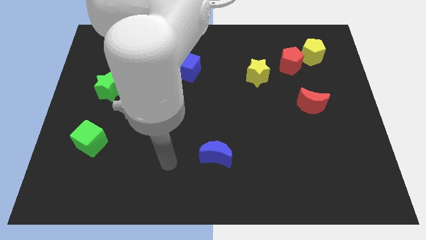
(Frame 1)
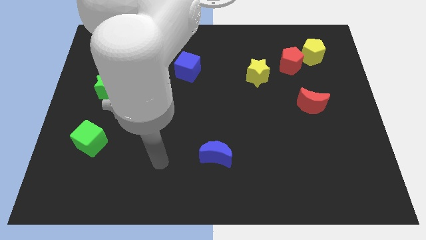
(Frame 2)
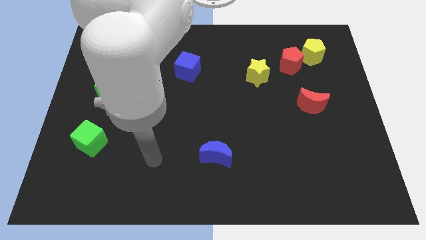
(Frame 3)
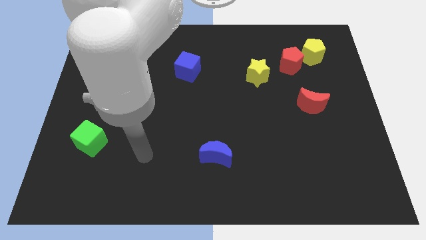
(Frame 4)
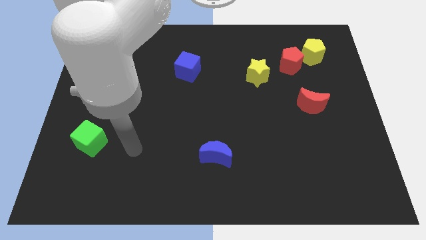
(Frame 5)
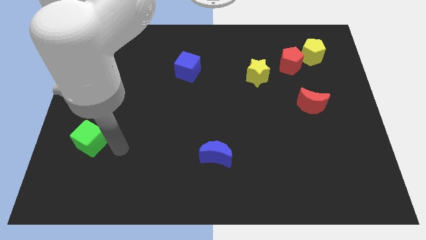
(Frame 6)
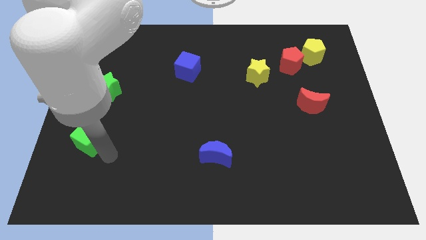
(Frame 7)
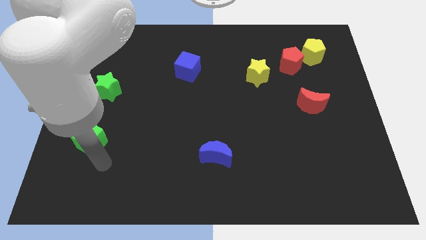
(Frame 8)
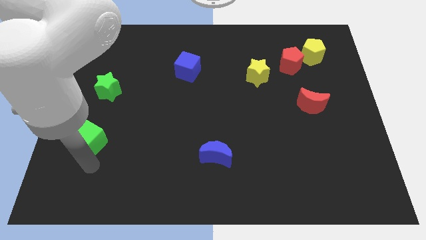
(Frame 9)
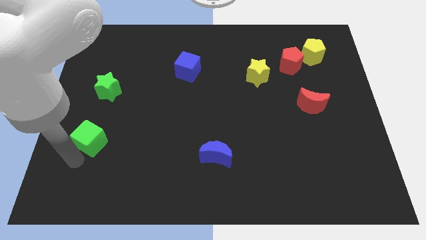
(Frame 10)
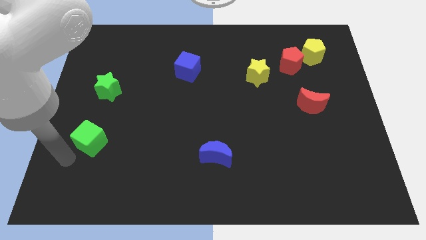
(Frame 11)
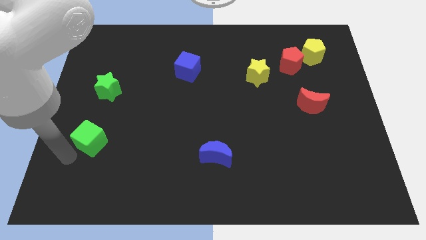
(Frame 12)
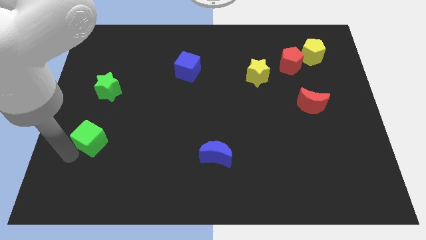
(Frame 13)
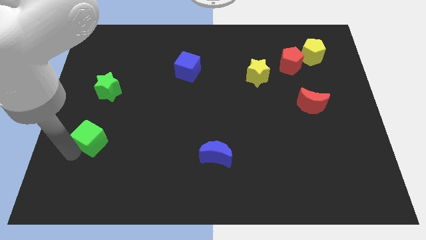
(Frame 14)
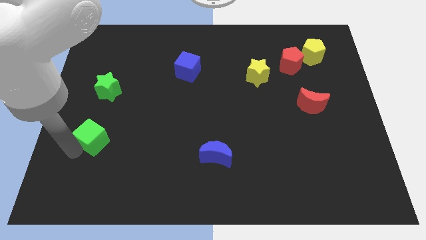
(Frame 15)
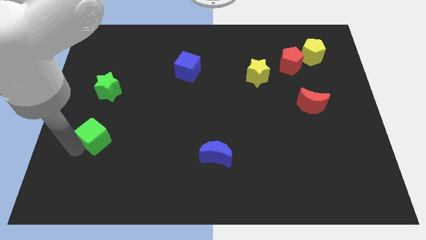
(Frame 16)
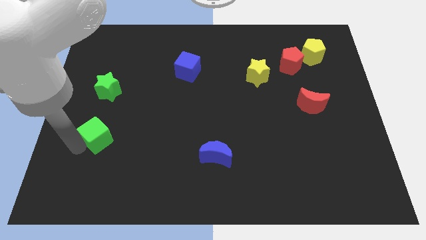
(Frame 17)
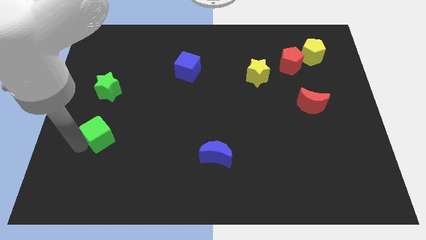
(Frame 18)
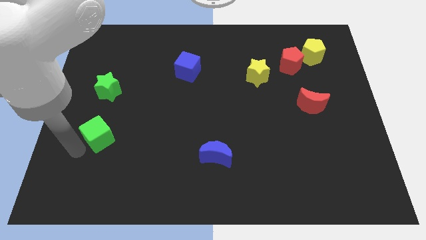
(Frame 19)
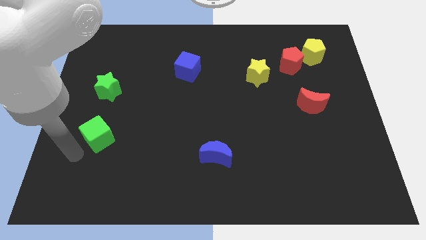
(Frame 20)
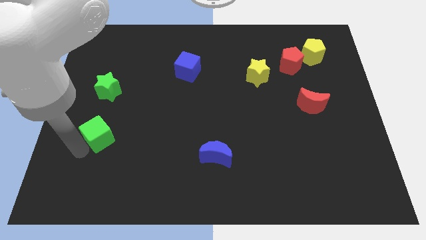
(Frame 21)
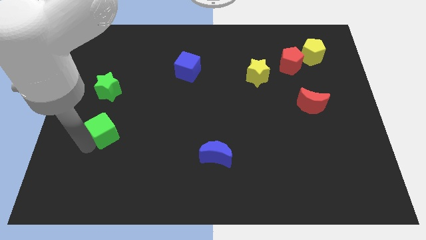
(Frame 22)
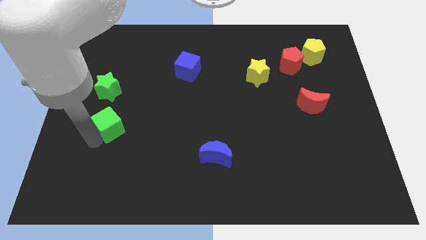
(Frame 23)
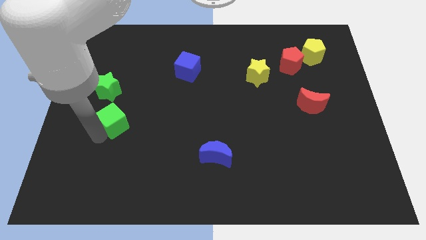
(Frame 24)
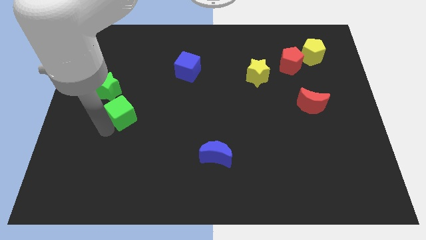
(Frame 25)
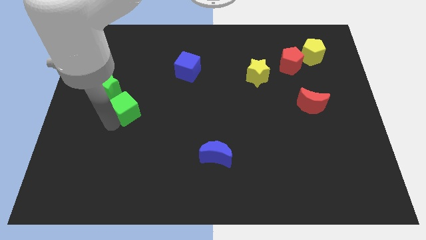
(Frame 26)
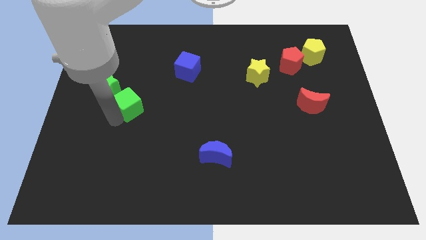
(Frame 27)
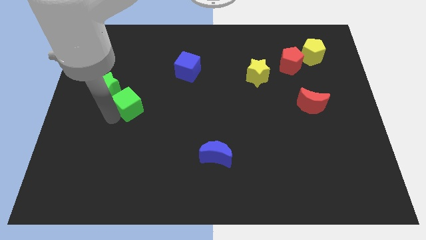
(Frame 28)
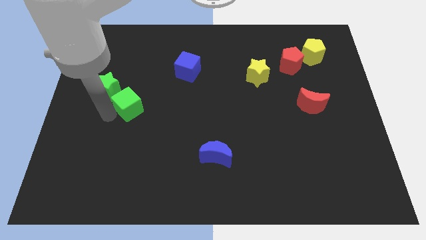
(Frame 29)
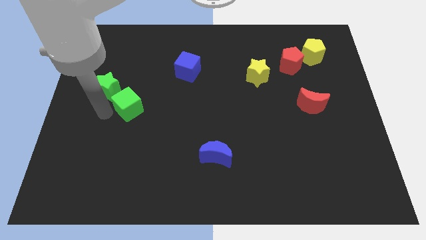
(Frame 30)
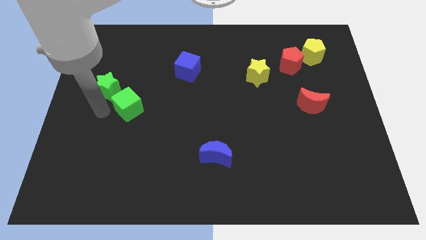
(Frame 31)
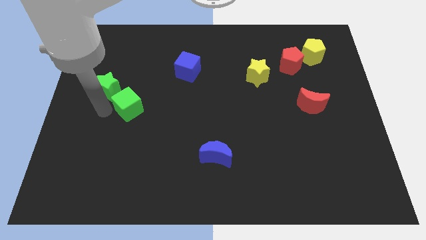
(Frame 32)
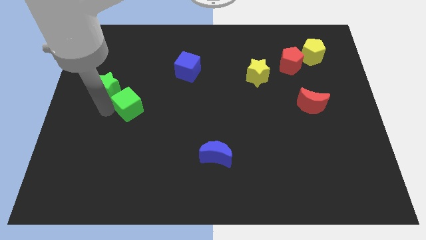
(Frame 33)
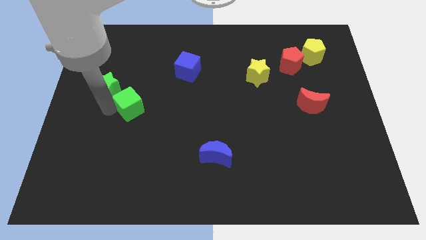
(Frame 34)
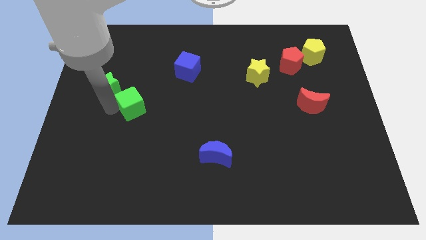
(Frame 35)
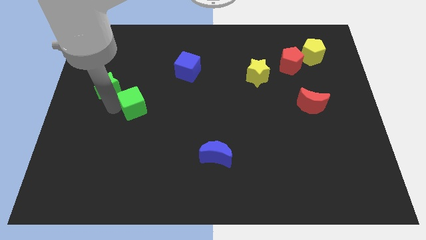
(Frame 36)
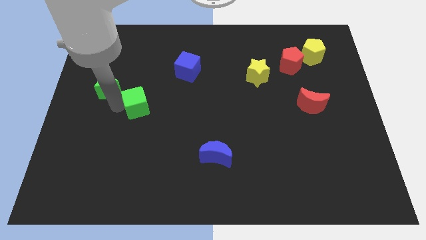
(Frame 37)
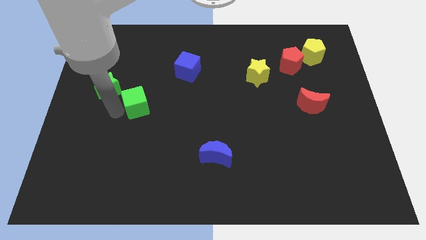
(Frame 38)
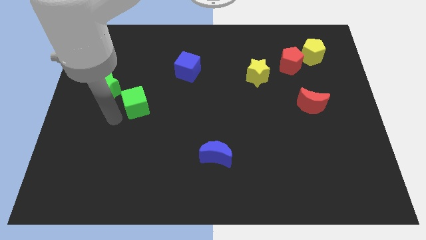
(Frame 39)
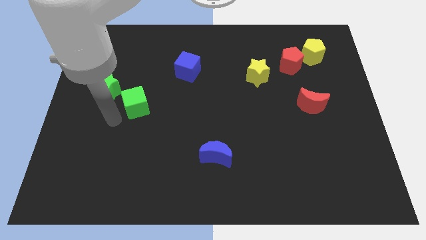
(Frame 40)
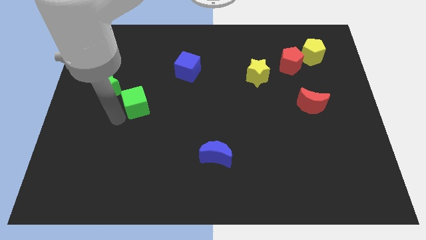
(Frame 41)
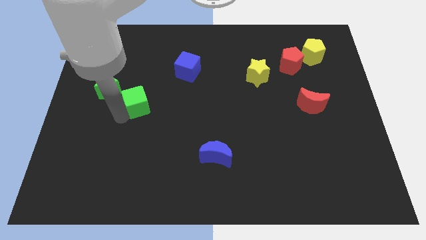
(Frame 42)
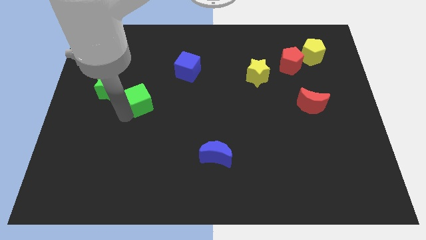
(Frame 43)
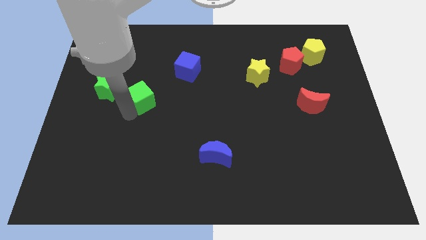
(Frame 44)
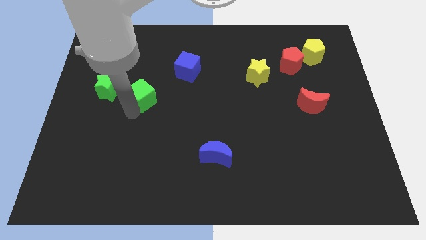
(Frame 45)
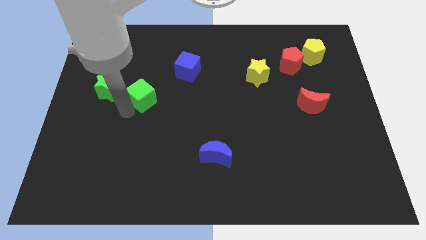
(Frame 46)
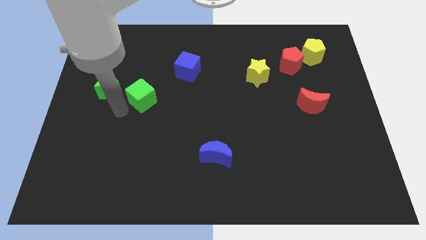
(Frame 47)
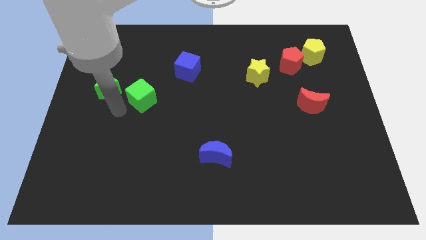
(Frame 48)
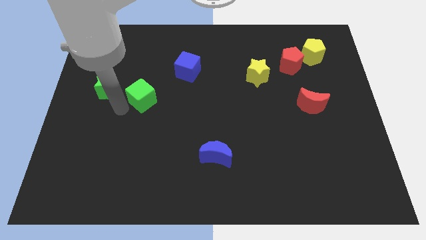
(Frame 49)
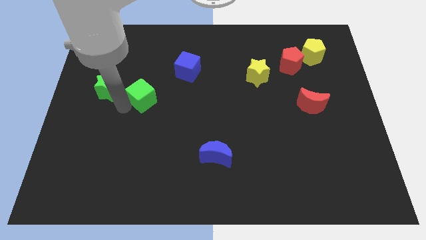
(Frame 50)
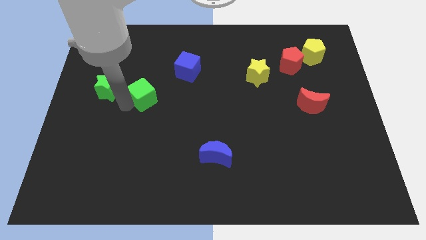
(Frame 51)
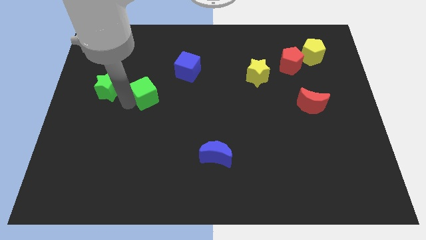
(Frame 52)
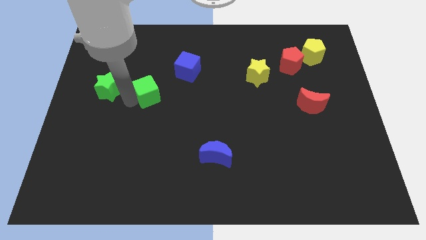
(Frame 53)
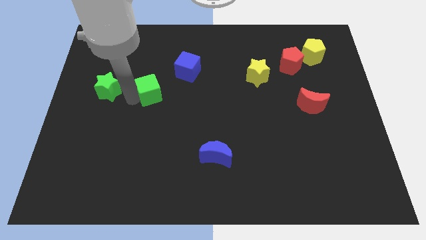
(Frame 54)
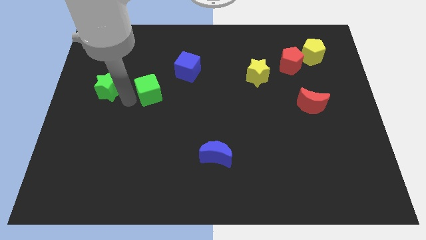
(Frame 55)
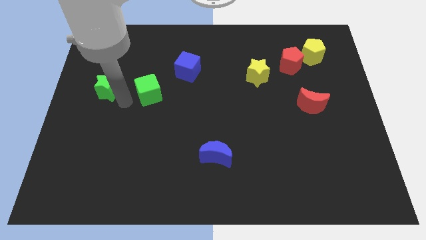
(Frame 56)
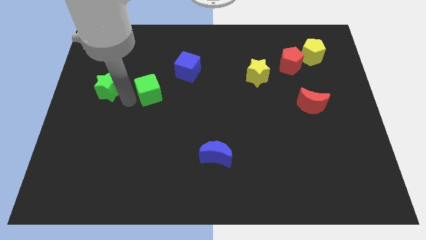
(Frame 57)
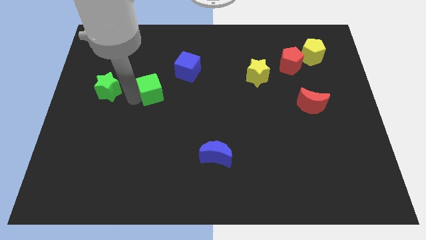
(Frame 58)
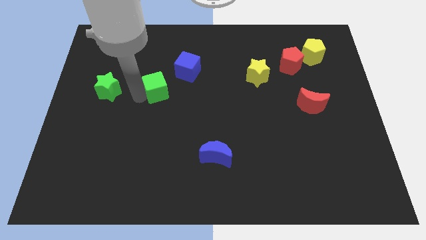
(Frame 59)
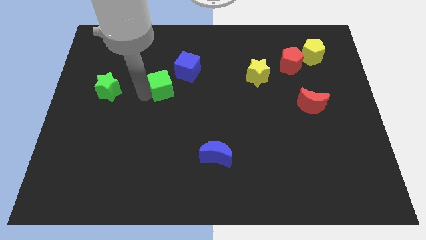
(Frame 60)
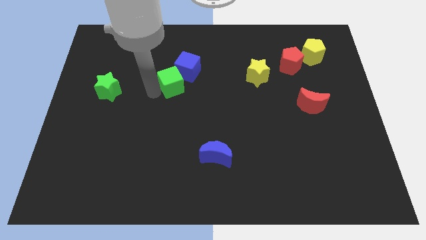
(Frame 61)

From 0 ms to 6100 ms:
move the green cube next to the blue cube

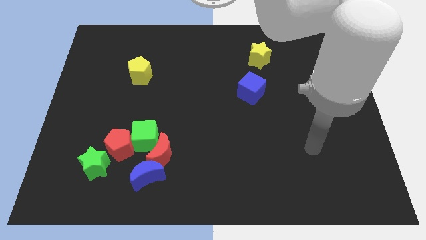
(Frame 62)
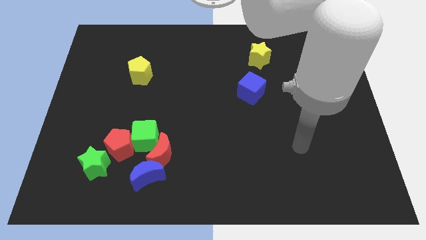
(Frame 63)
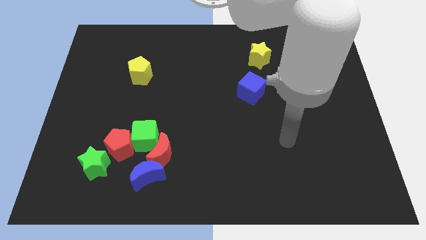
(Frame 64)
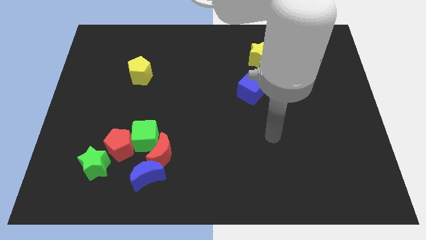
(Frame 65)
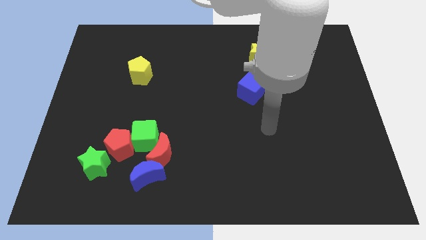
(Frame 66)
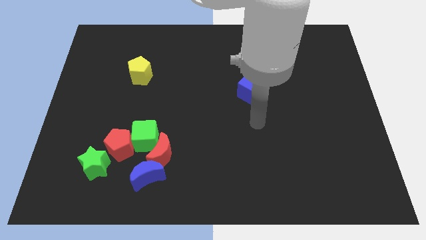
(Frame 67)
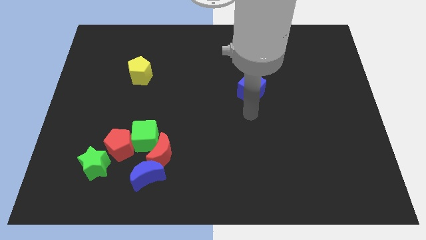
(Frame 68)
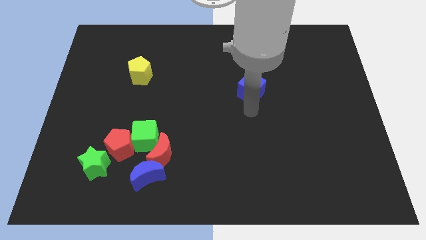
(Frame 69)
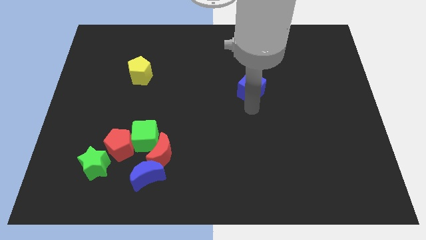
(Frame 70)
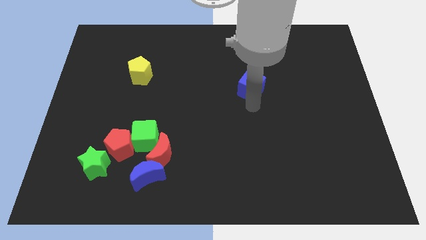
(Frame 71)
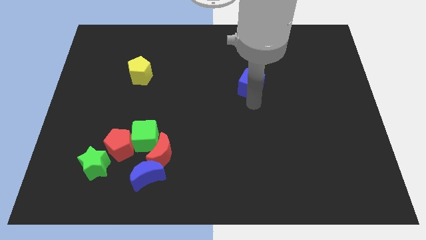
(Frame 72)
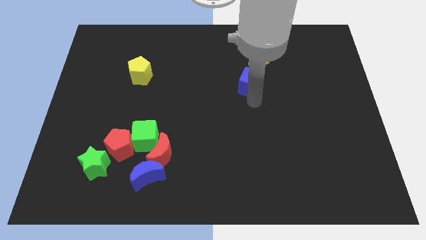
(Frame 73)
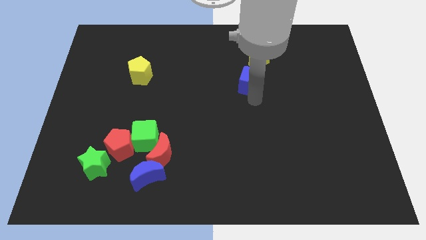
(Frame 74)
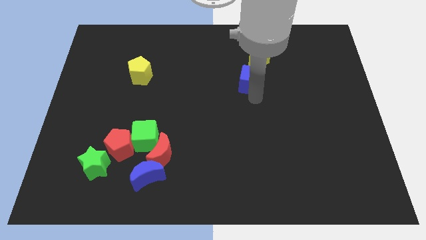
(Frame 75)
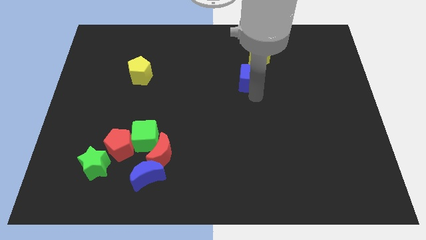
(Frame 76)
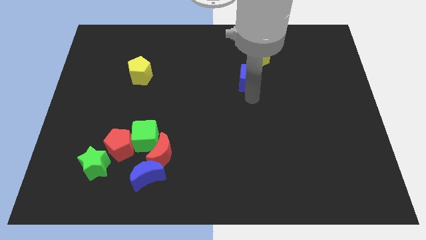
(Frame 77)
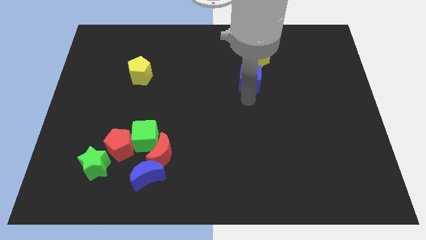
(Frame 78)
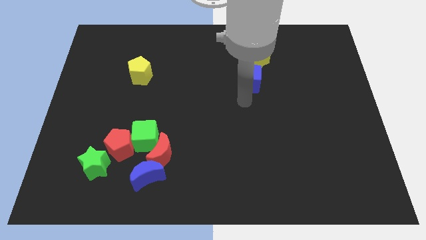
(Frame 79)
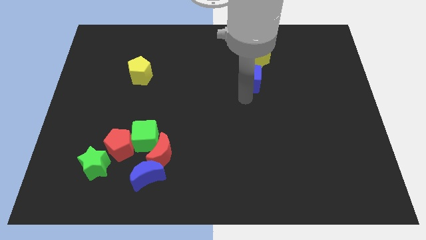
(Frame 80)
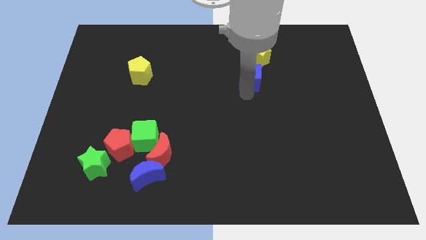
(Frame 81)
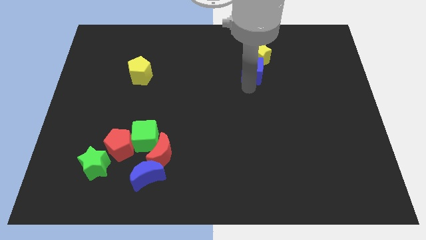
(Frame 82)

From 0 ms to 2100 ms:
slide the blue cube towards the yellow star
